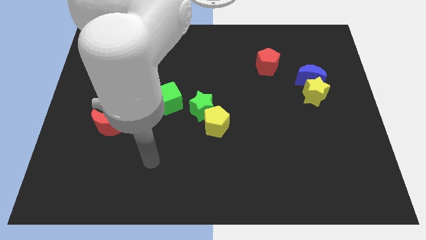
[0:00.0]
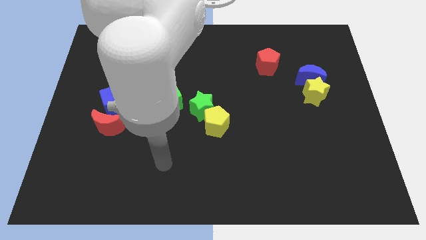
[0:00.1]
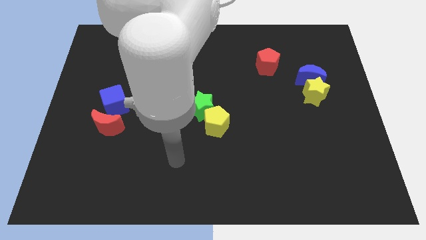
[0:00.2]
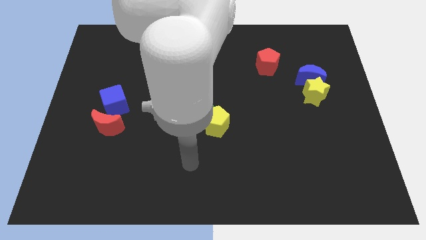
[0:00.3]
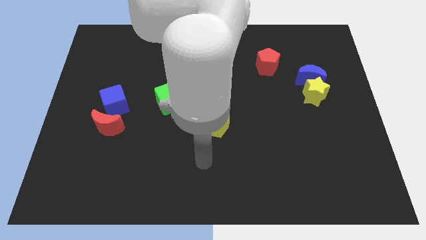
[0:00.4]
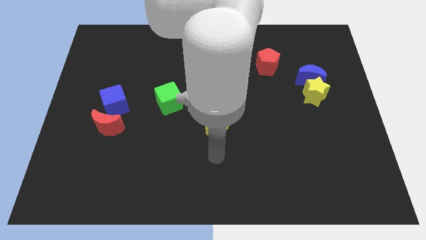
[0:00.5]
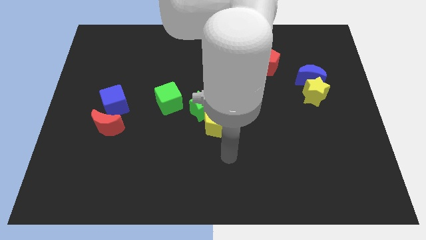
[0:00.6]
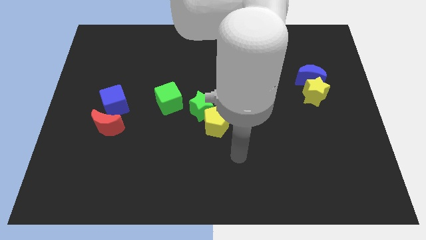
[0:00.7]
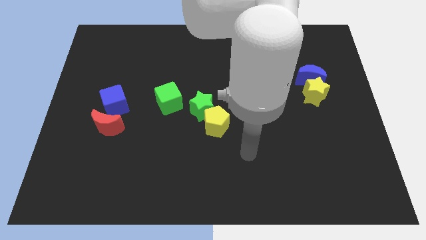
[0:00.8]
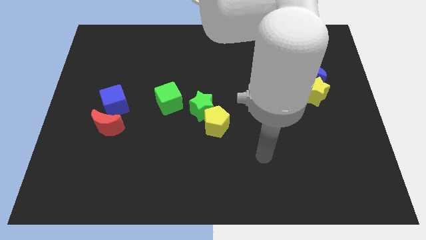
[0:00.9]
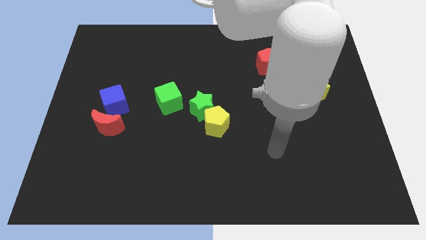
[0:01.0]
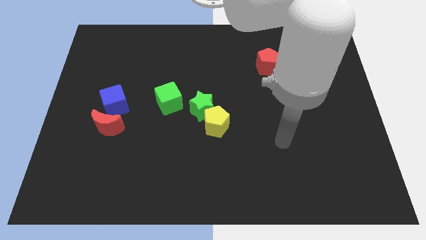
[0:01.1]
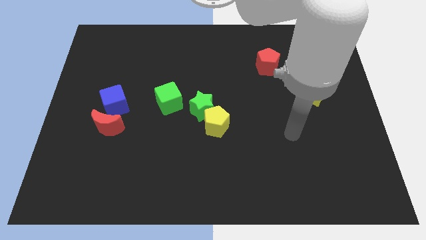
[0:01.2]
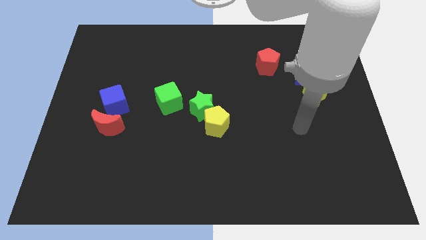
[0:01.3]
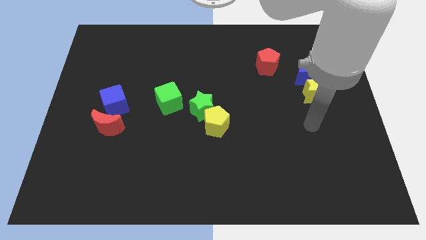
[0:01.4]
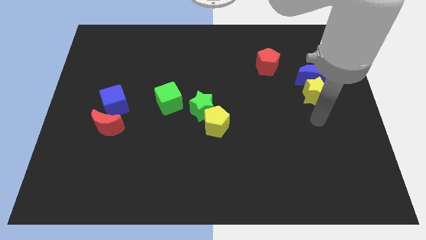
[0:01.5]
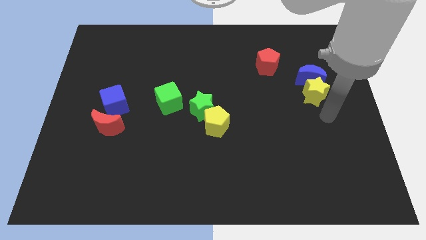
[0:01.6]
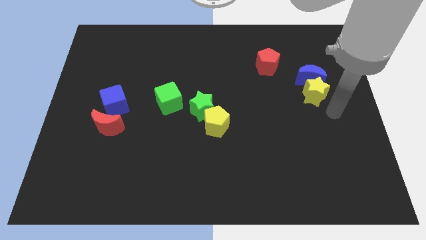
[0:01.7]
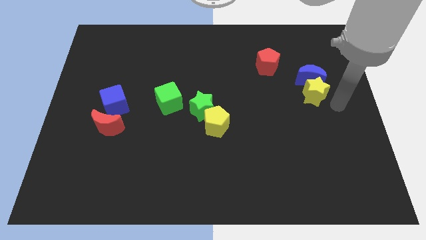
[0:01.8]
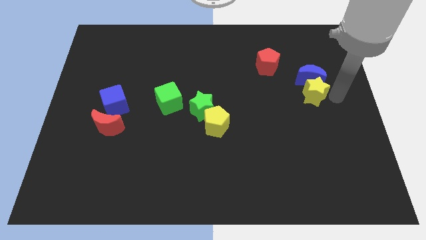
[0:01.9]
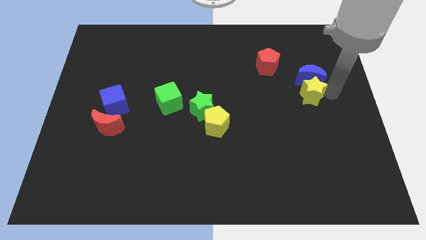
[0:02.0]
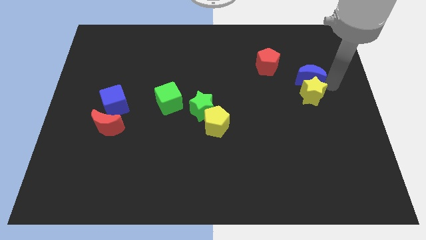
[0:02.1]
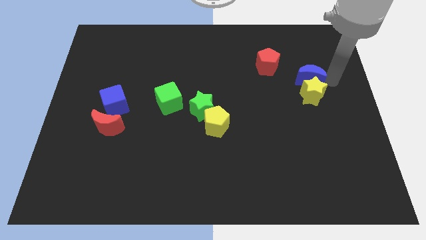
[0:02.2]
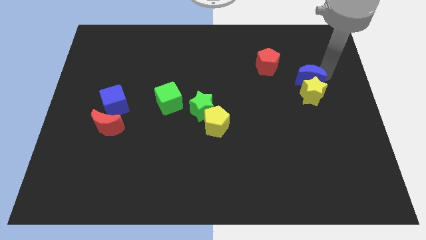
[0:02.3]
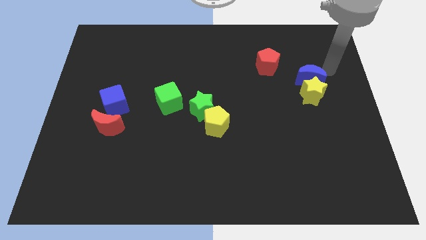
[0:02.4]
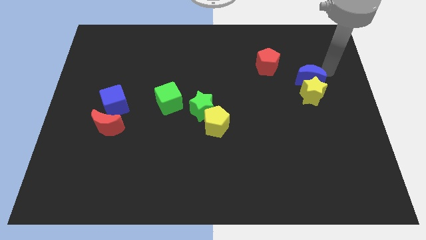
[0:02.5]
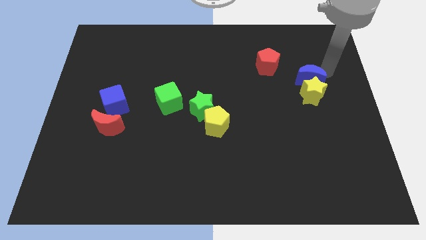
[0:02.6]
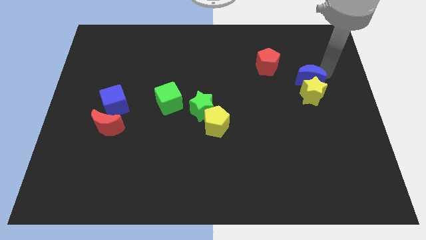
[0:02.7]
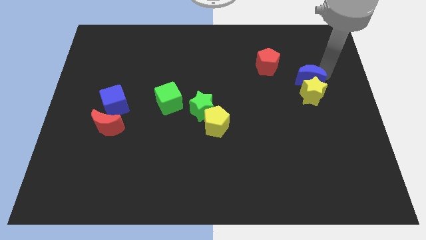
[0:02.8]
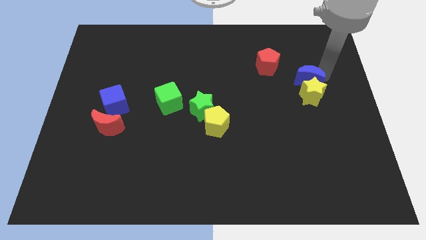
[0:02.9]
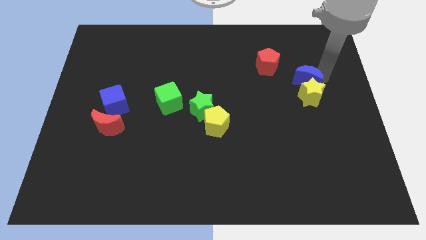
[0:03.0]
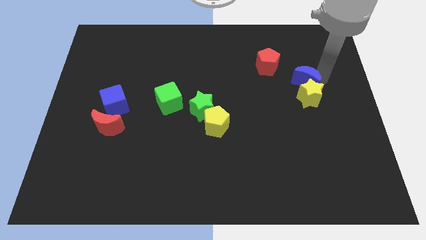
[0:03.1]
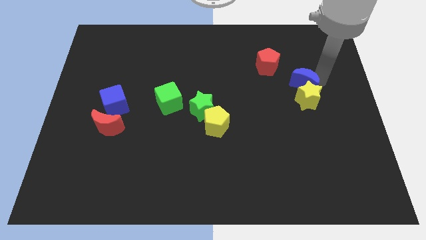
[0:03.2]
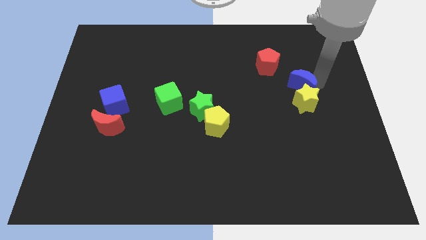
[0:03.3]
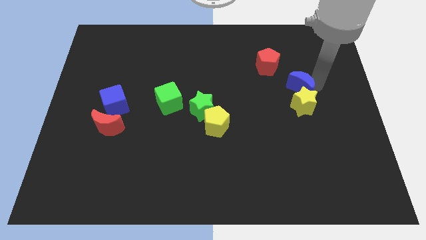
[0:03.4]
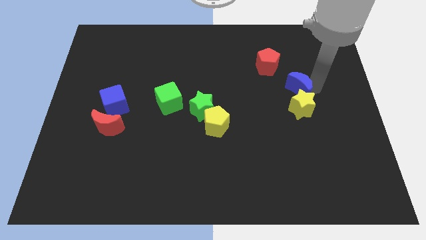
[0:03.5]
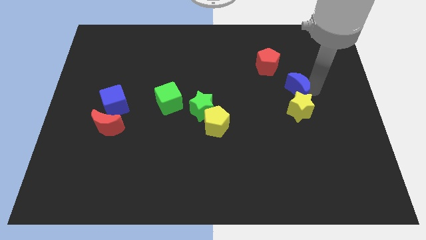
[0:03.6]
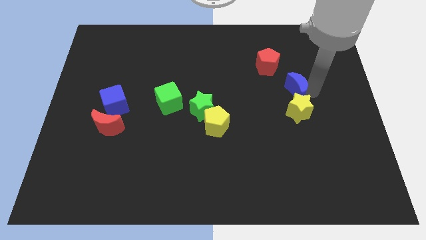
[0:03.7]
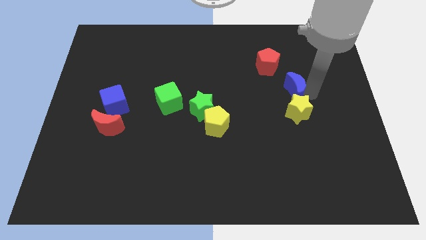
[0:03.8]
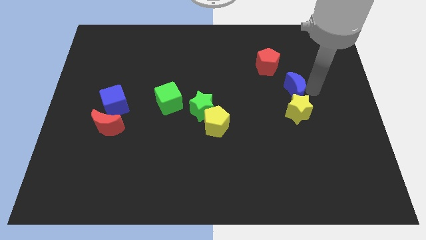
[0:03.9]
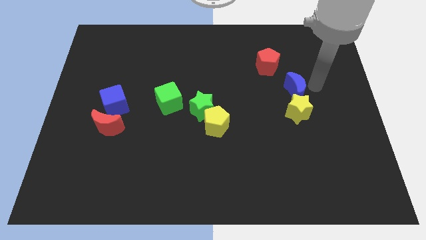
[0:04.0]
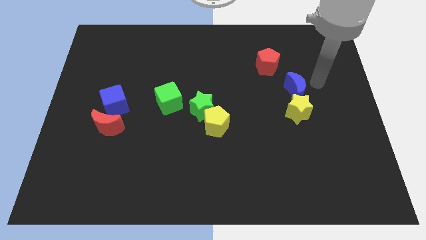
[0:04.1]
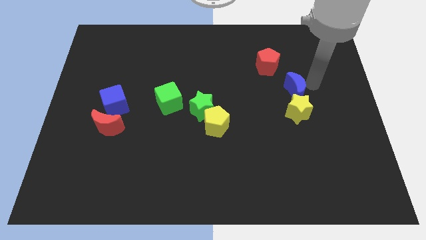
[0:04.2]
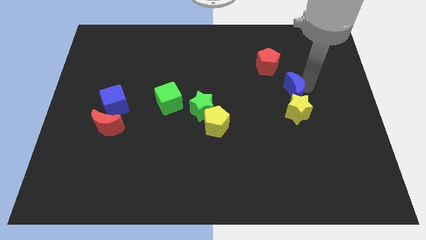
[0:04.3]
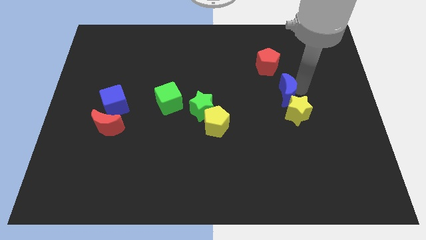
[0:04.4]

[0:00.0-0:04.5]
push the blue moon diagonally down and left somewhat

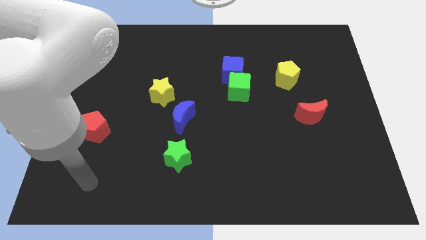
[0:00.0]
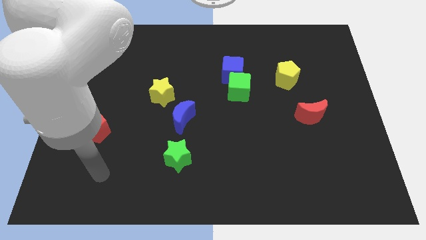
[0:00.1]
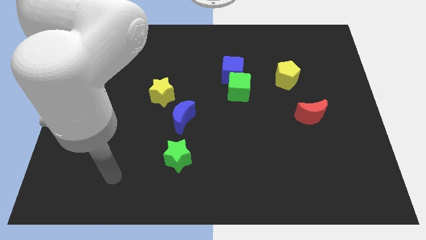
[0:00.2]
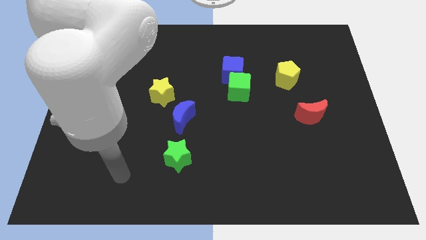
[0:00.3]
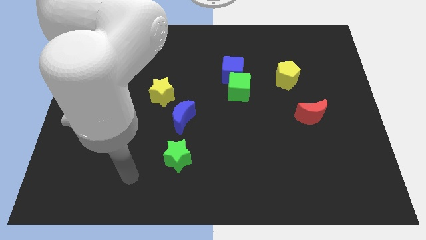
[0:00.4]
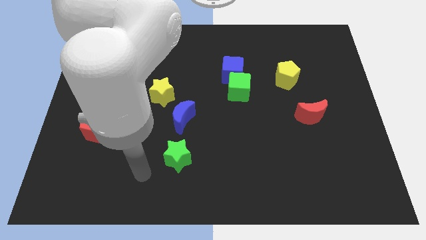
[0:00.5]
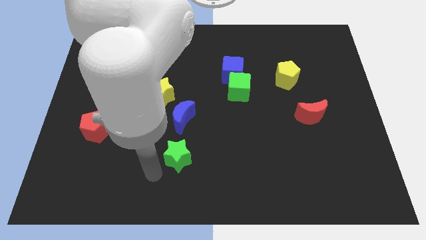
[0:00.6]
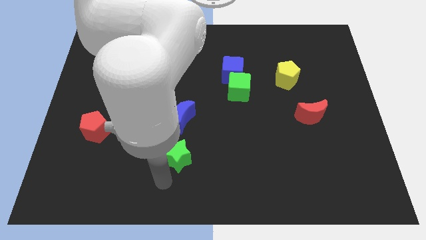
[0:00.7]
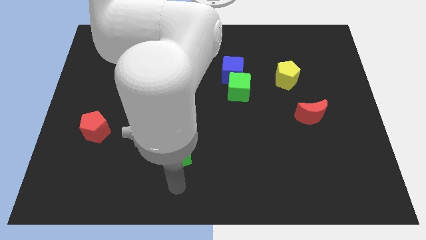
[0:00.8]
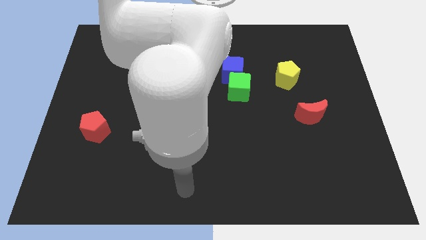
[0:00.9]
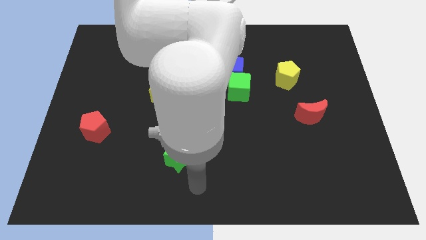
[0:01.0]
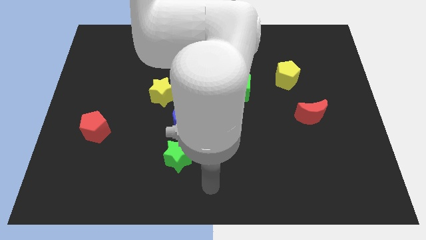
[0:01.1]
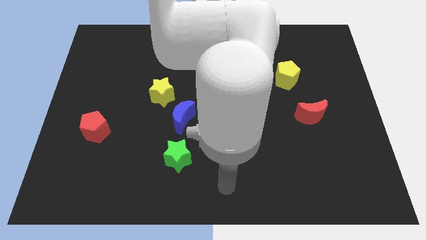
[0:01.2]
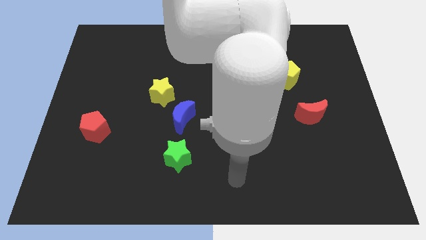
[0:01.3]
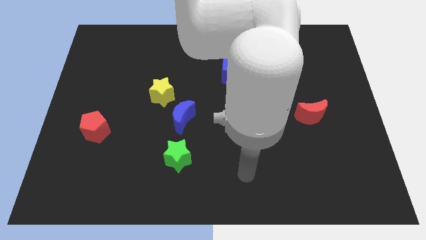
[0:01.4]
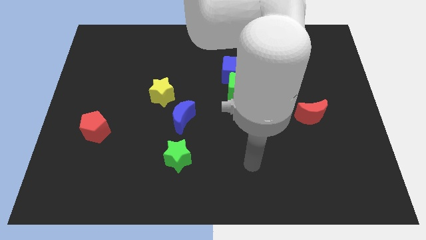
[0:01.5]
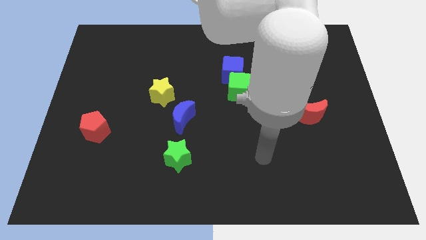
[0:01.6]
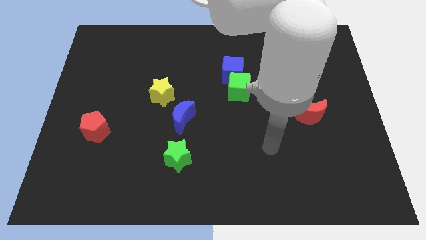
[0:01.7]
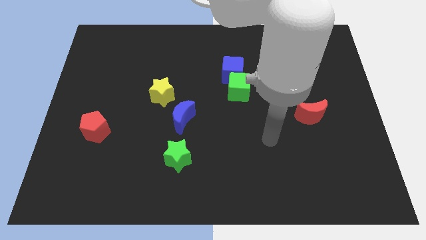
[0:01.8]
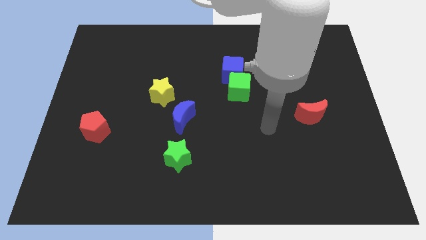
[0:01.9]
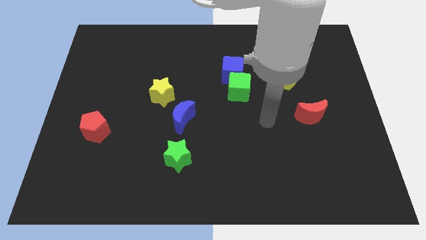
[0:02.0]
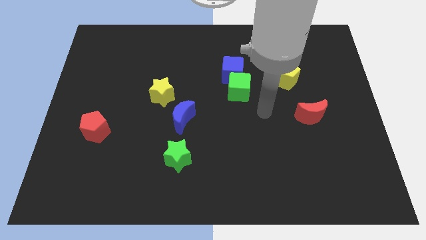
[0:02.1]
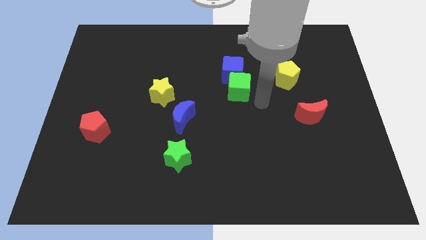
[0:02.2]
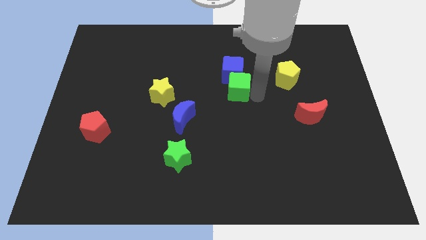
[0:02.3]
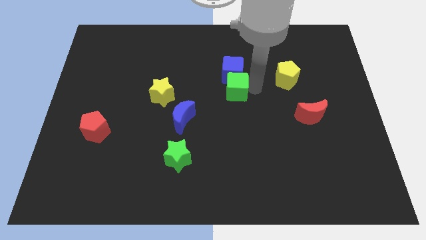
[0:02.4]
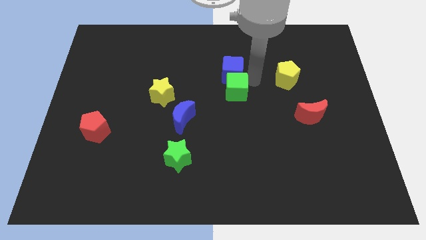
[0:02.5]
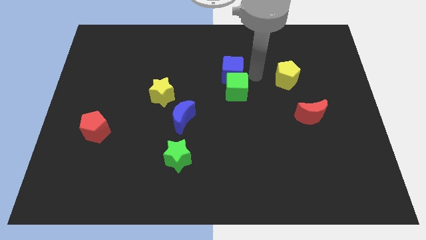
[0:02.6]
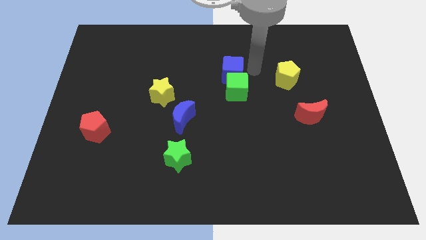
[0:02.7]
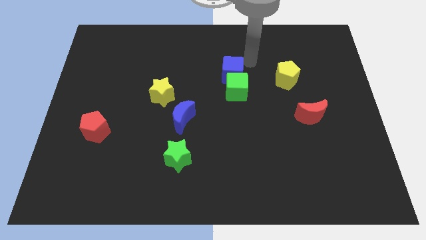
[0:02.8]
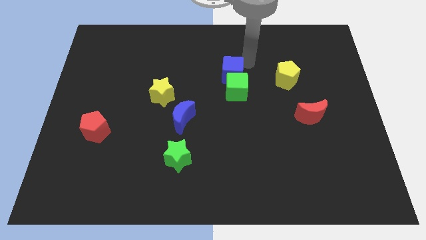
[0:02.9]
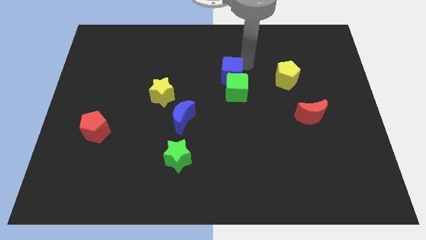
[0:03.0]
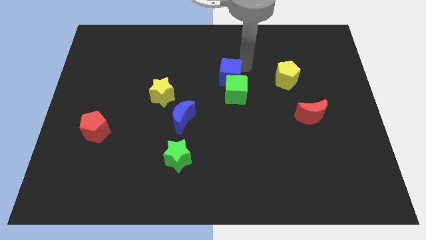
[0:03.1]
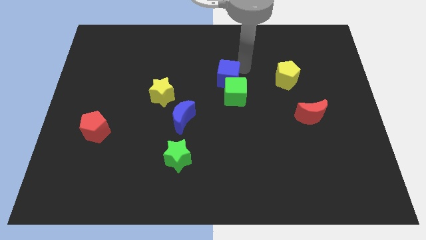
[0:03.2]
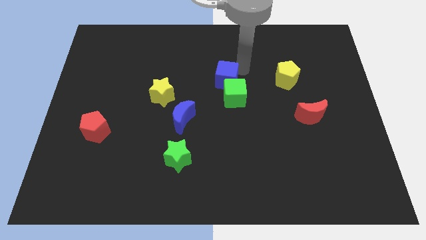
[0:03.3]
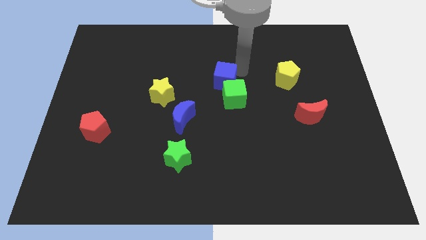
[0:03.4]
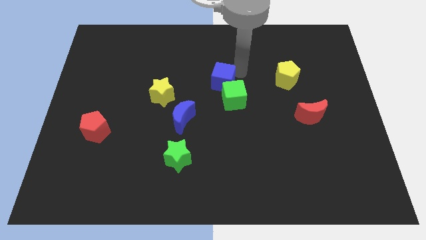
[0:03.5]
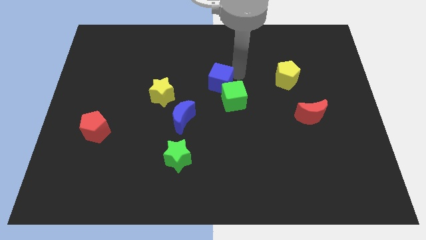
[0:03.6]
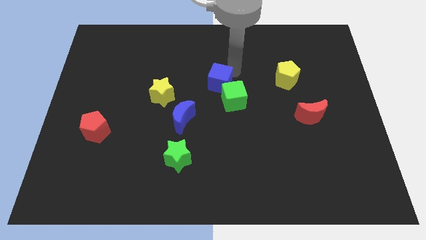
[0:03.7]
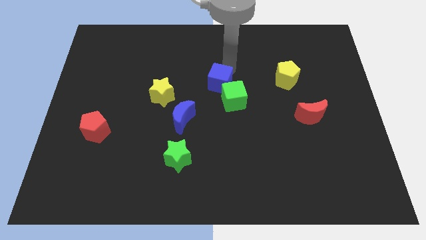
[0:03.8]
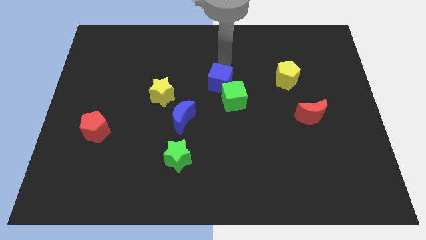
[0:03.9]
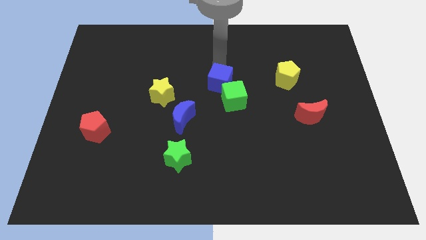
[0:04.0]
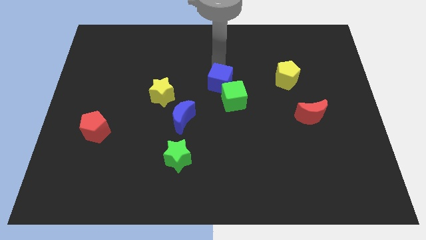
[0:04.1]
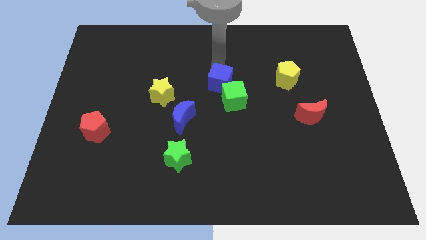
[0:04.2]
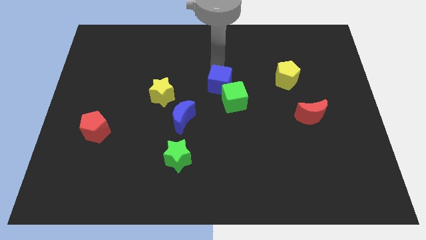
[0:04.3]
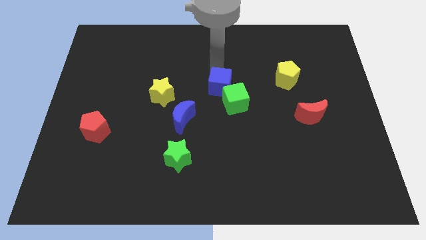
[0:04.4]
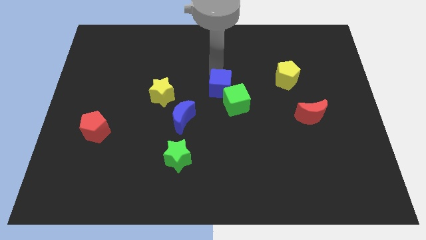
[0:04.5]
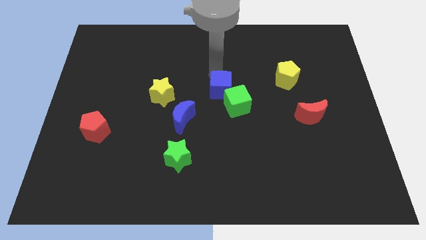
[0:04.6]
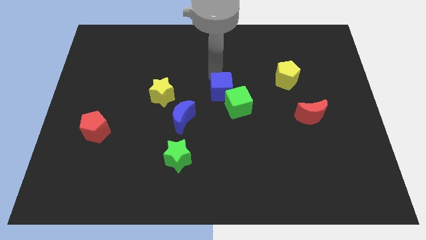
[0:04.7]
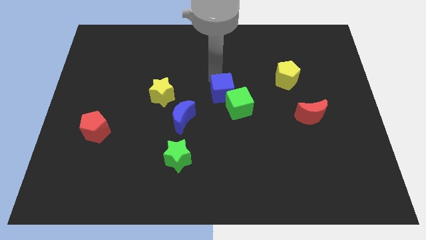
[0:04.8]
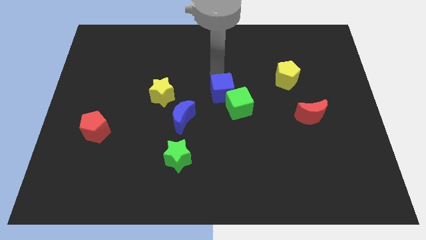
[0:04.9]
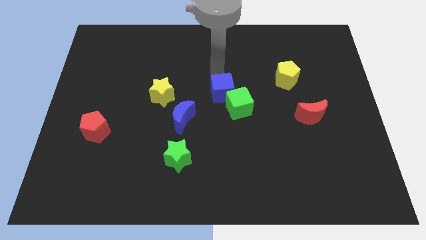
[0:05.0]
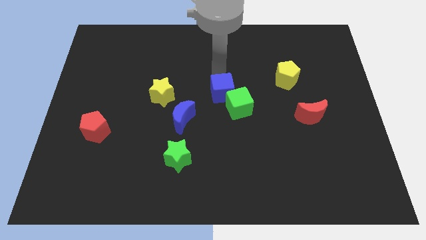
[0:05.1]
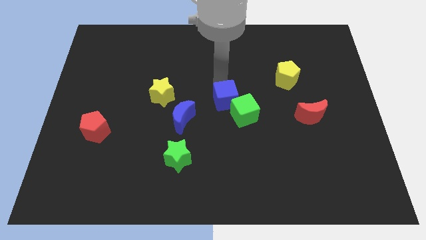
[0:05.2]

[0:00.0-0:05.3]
slide the blue cube a little bit downwards
